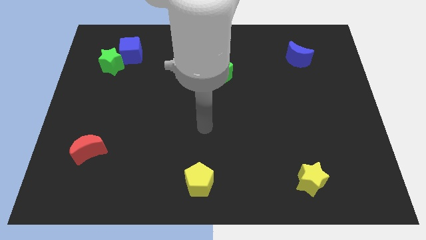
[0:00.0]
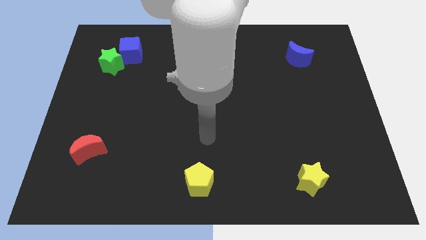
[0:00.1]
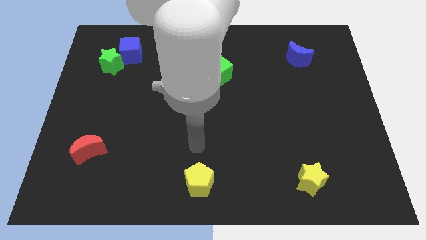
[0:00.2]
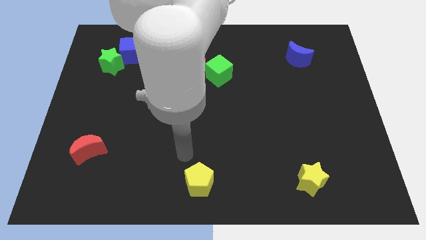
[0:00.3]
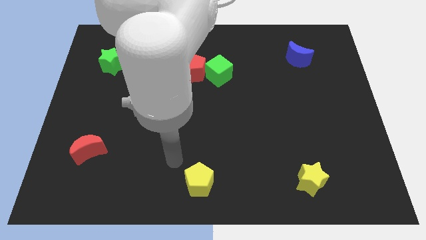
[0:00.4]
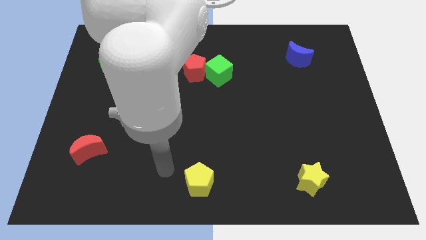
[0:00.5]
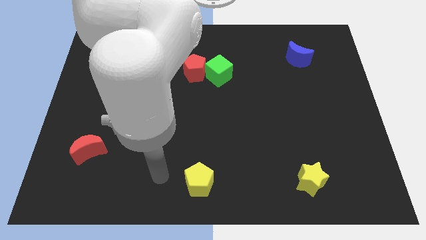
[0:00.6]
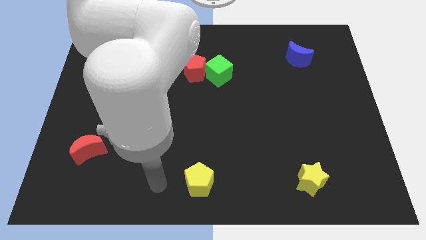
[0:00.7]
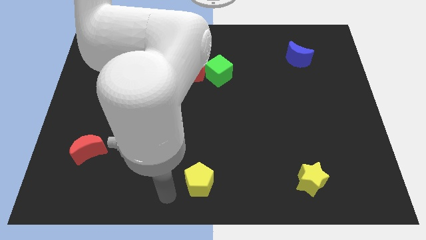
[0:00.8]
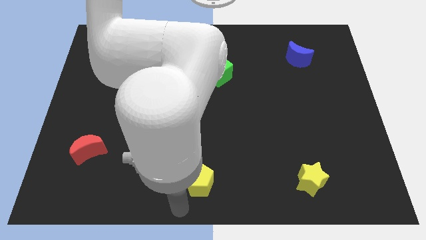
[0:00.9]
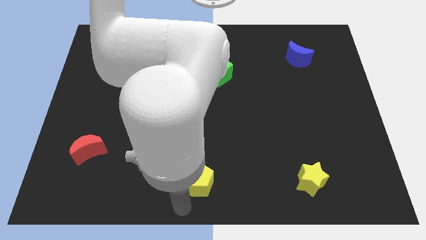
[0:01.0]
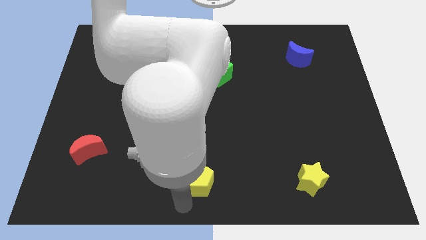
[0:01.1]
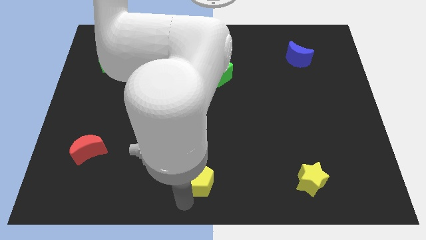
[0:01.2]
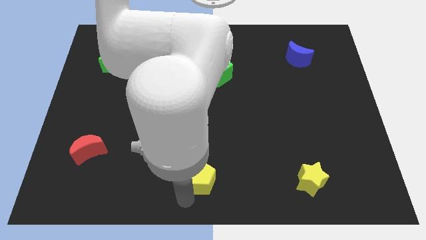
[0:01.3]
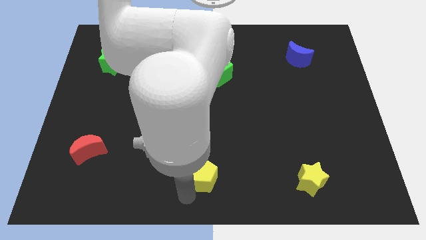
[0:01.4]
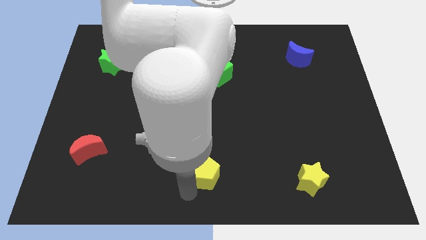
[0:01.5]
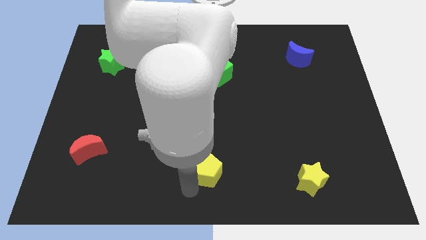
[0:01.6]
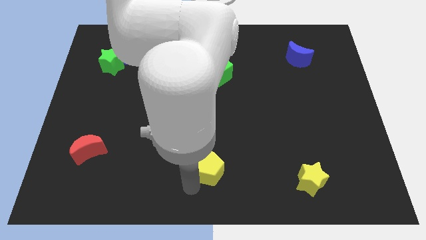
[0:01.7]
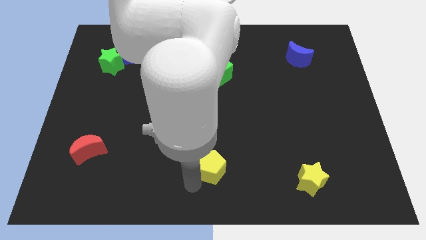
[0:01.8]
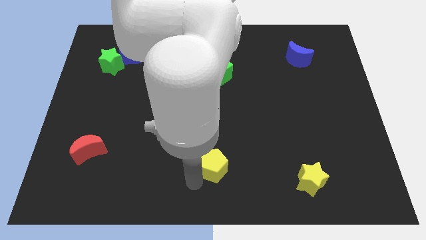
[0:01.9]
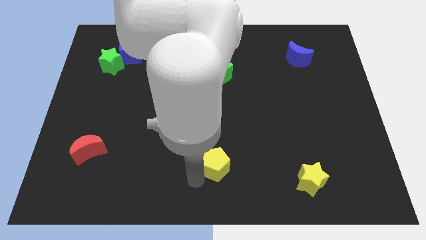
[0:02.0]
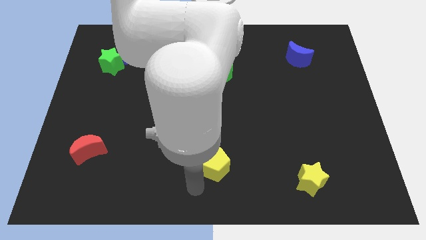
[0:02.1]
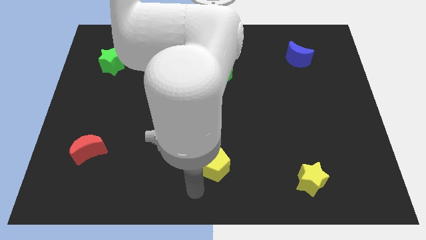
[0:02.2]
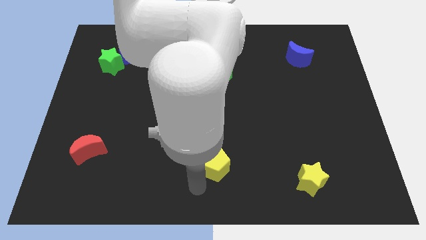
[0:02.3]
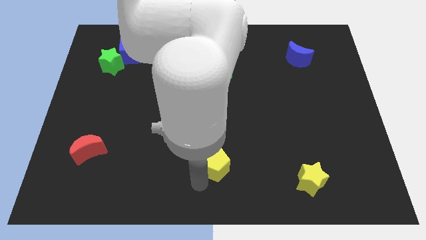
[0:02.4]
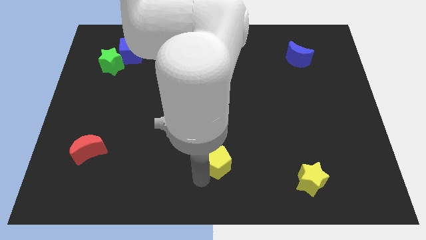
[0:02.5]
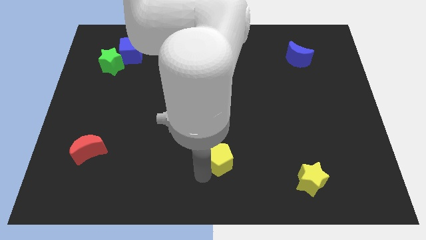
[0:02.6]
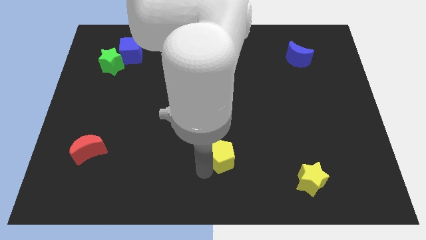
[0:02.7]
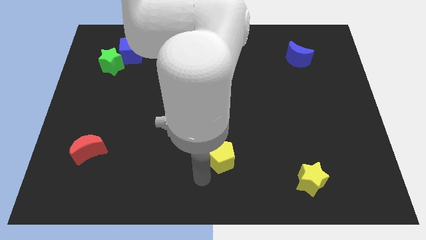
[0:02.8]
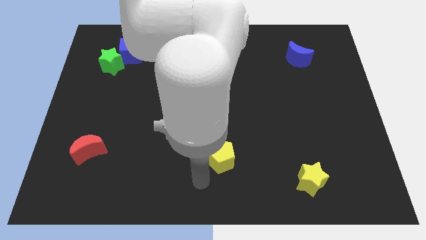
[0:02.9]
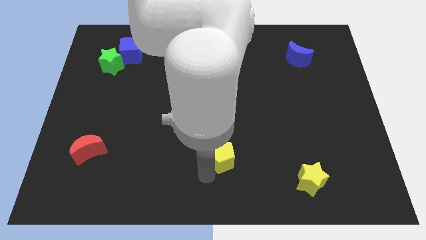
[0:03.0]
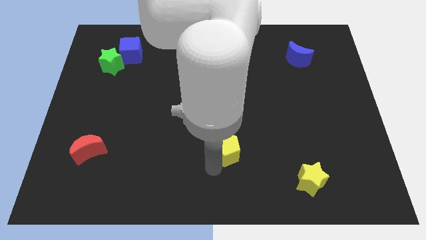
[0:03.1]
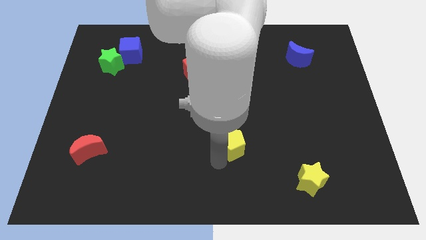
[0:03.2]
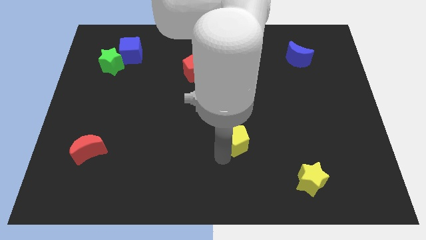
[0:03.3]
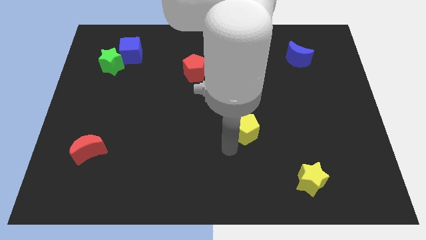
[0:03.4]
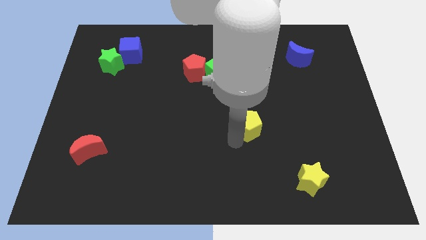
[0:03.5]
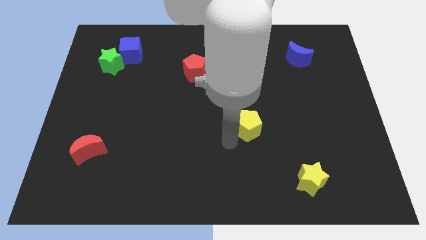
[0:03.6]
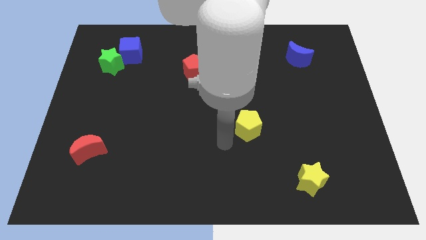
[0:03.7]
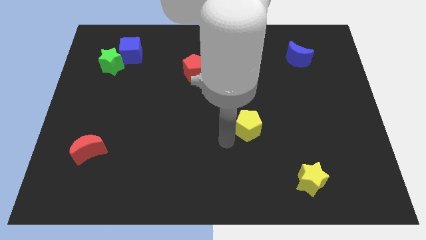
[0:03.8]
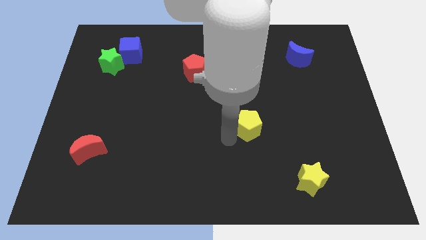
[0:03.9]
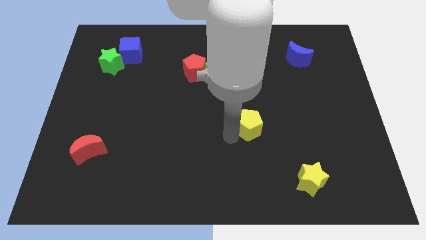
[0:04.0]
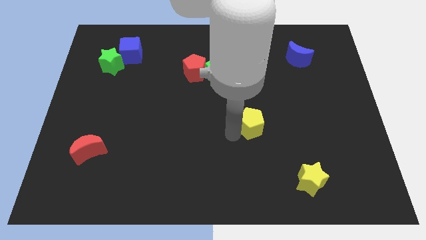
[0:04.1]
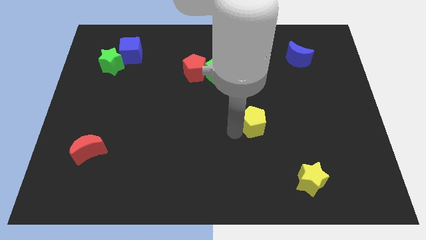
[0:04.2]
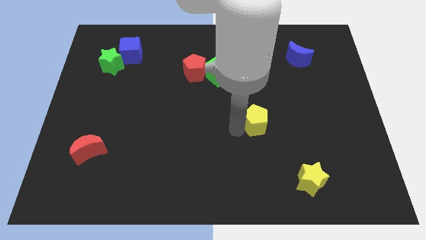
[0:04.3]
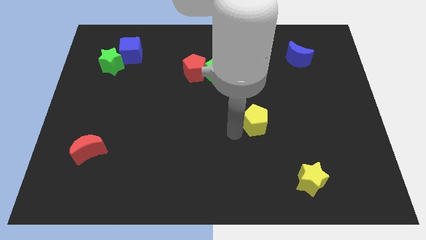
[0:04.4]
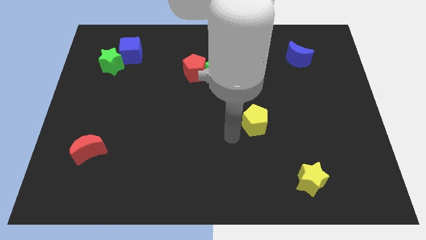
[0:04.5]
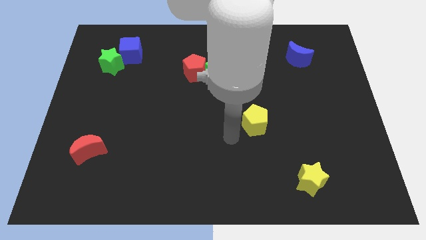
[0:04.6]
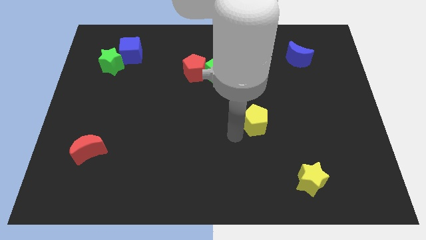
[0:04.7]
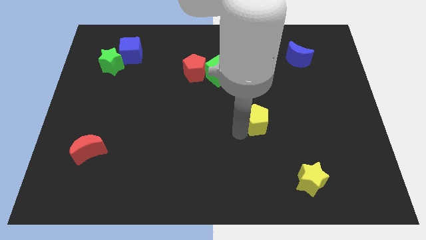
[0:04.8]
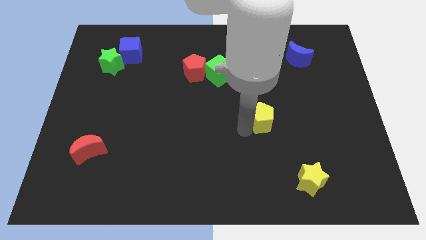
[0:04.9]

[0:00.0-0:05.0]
move the yellow pentagon diagonally upwards and to the right

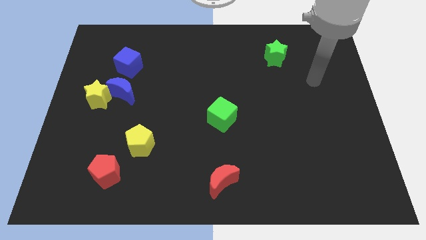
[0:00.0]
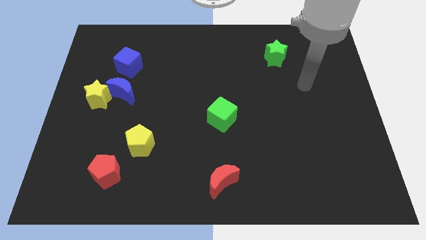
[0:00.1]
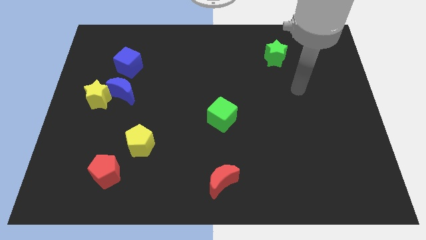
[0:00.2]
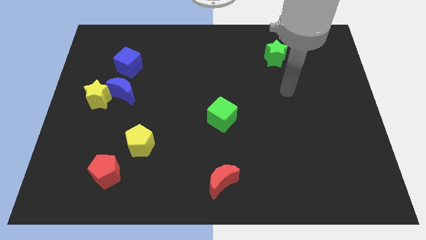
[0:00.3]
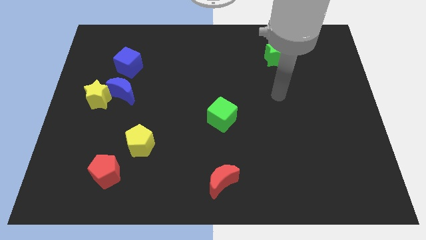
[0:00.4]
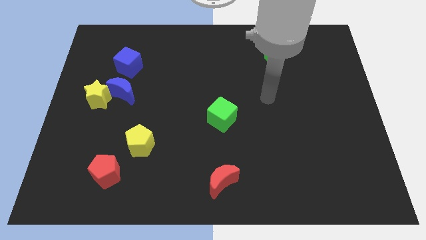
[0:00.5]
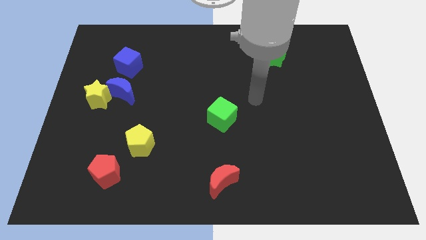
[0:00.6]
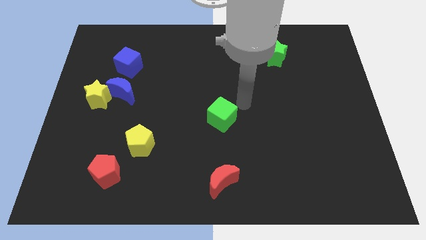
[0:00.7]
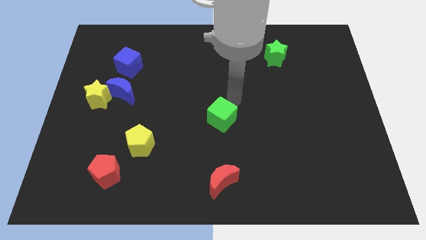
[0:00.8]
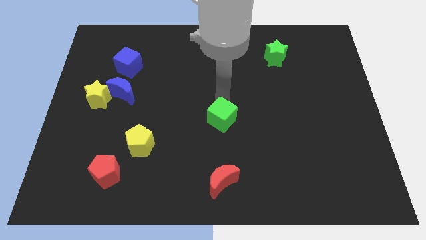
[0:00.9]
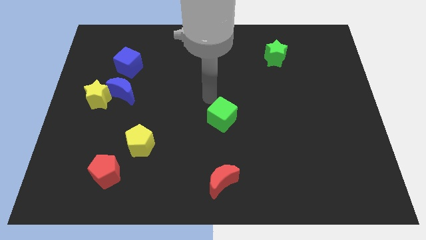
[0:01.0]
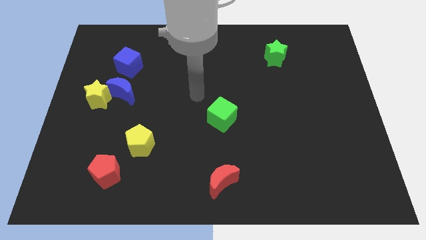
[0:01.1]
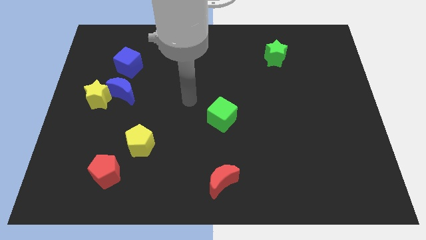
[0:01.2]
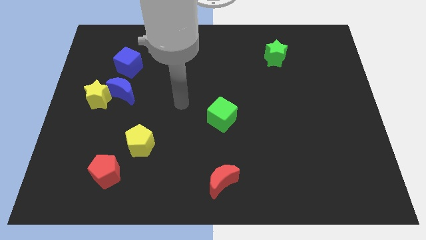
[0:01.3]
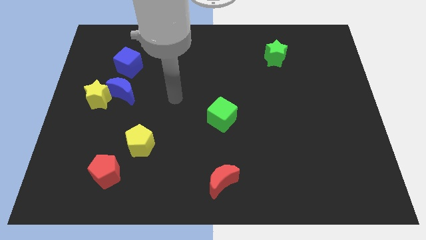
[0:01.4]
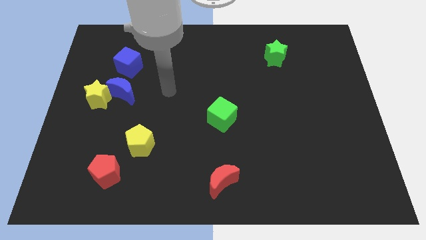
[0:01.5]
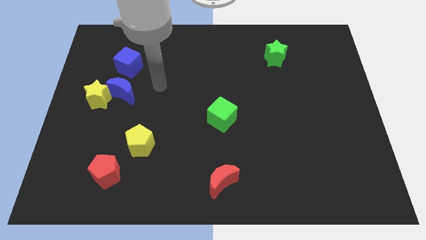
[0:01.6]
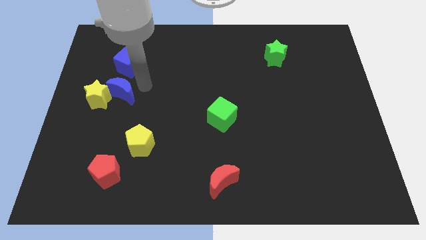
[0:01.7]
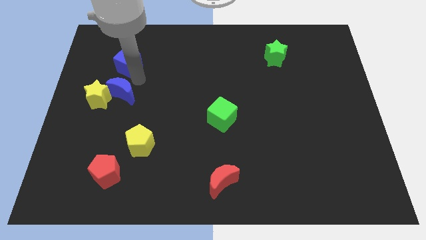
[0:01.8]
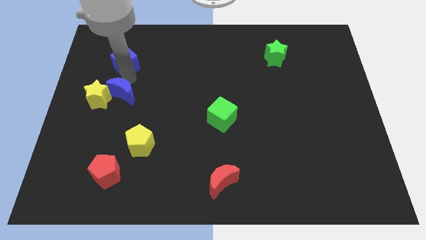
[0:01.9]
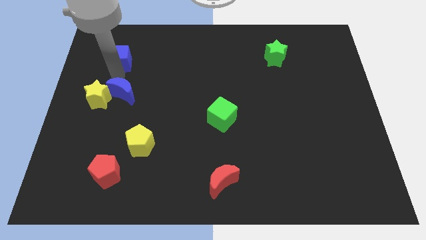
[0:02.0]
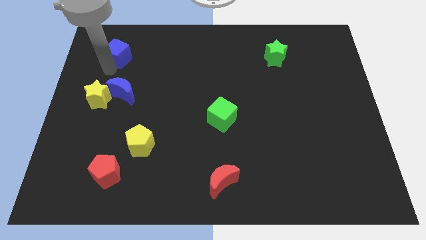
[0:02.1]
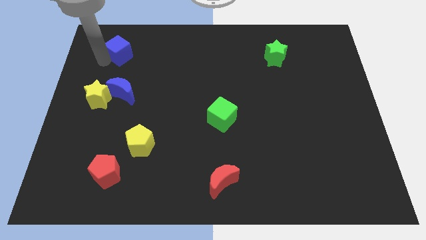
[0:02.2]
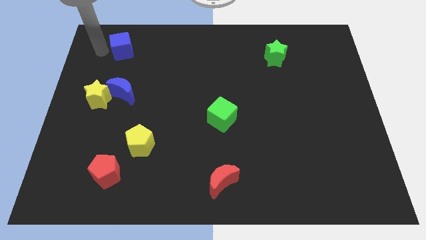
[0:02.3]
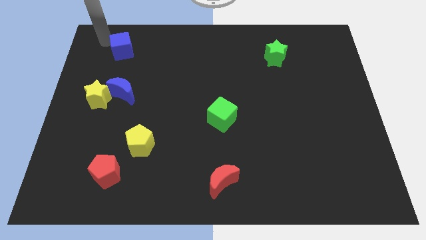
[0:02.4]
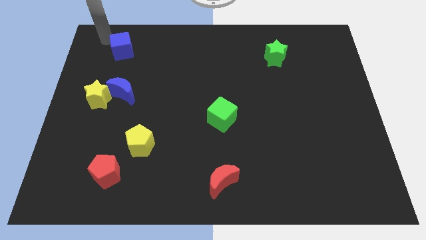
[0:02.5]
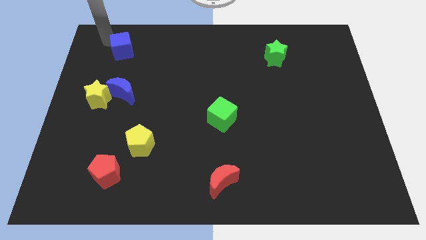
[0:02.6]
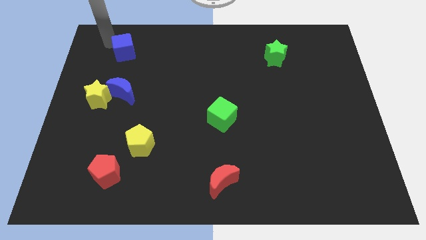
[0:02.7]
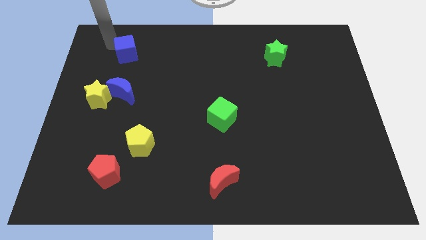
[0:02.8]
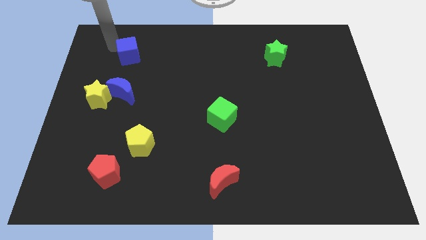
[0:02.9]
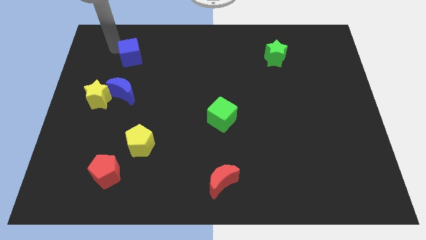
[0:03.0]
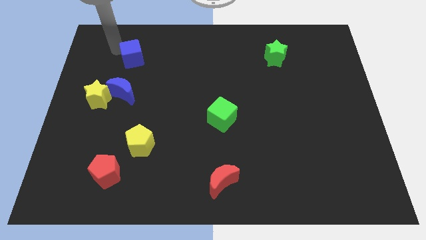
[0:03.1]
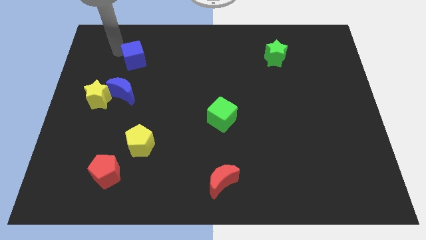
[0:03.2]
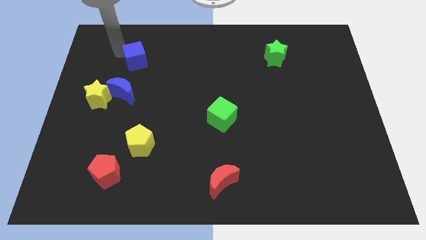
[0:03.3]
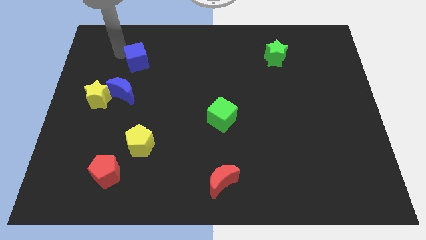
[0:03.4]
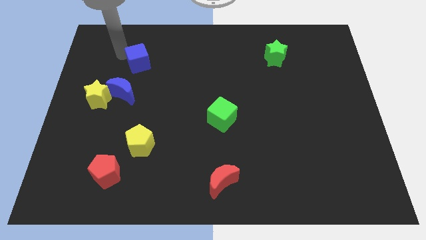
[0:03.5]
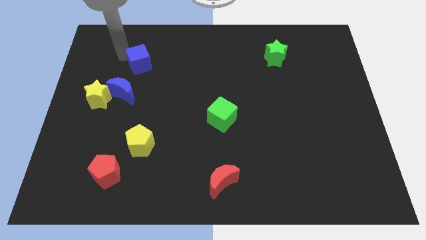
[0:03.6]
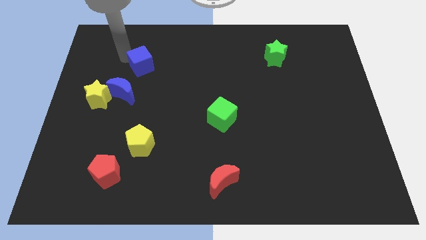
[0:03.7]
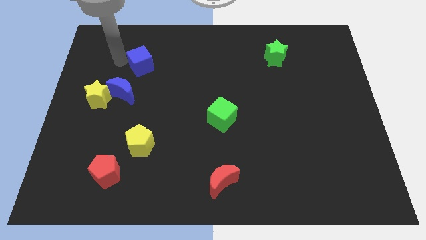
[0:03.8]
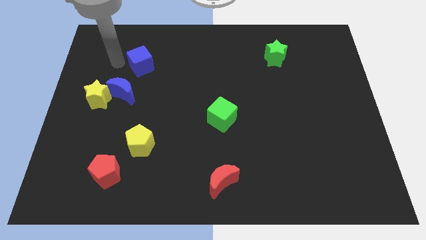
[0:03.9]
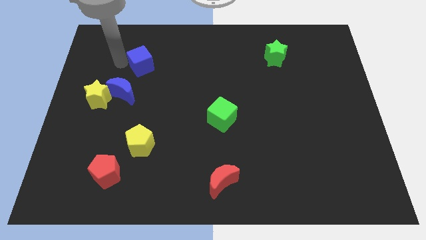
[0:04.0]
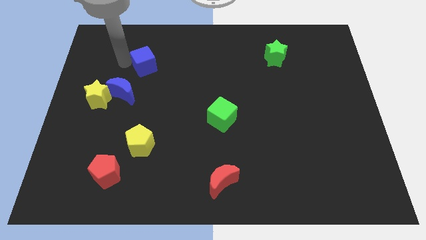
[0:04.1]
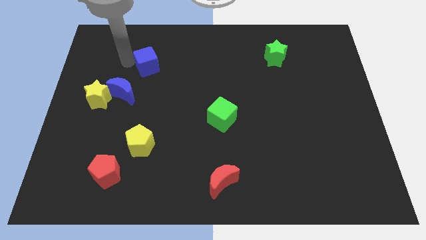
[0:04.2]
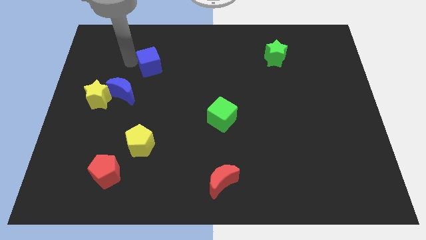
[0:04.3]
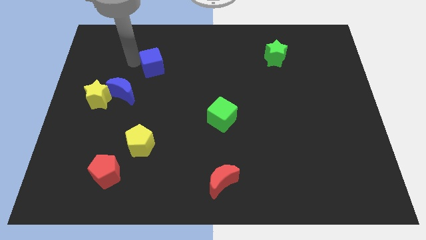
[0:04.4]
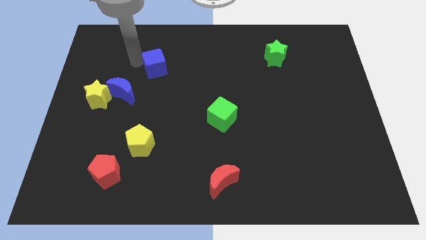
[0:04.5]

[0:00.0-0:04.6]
slide the blue cube slightly right
